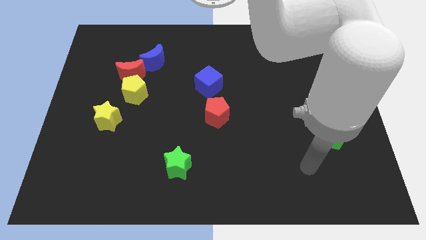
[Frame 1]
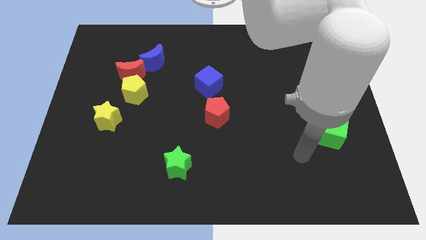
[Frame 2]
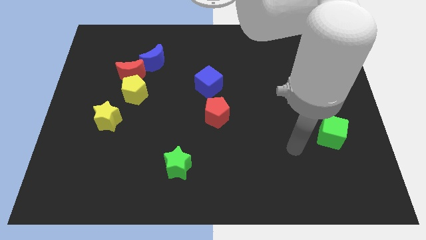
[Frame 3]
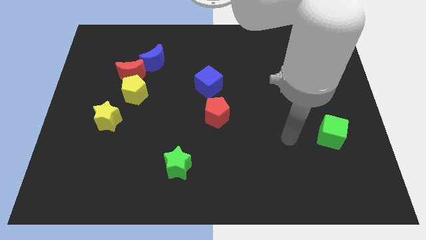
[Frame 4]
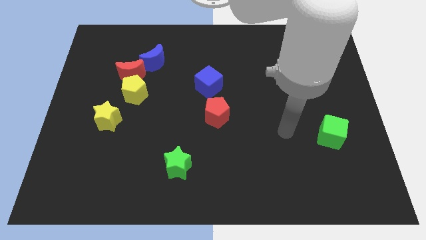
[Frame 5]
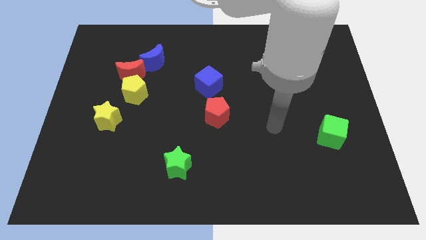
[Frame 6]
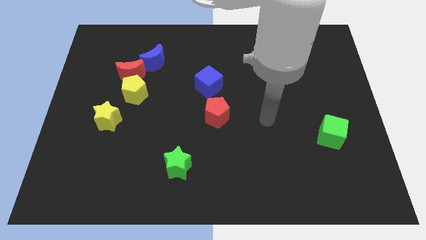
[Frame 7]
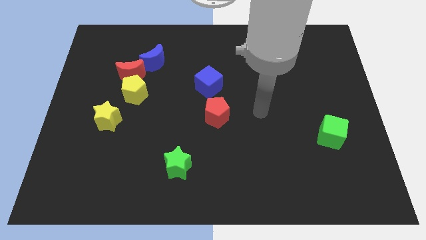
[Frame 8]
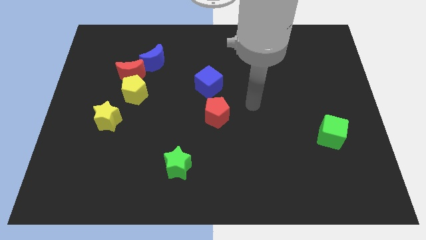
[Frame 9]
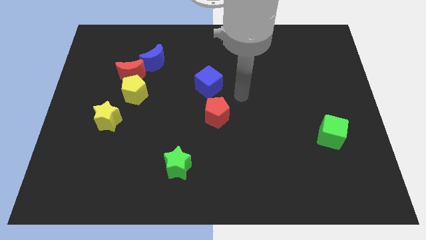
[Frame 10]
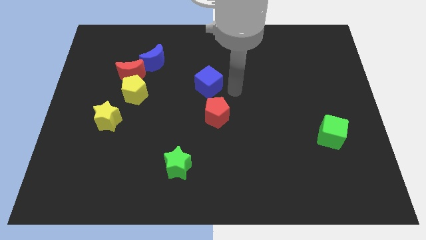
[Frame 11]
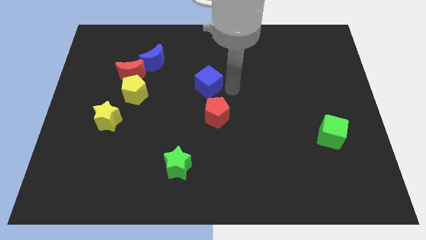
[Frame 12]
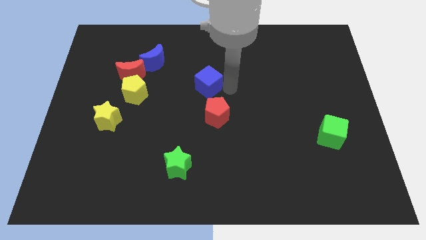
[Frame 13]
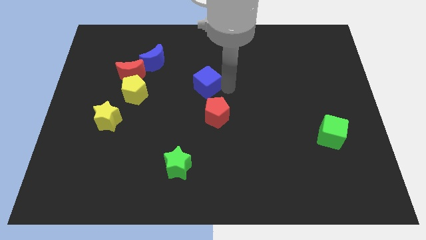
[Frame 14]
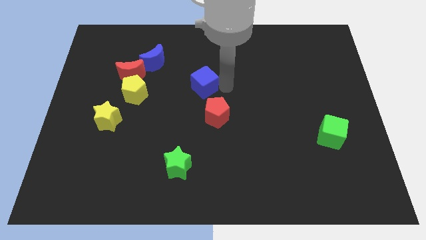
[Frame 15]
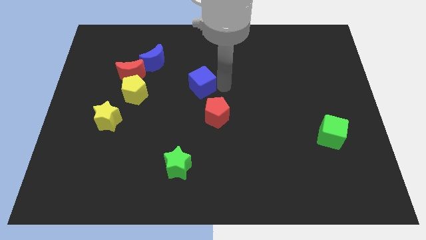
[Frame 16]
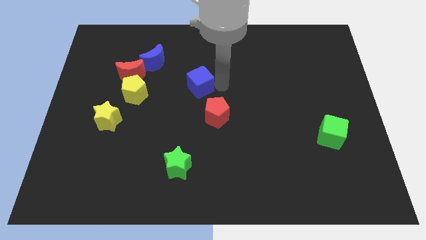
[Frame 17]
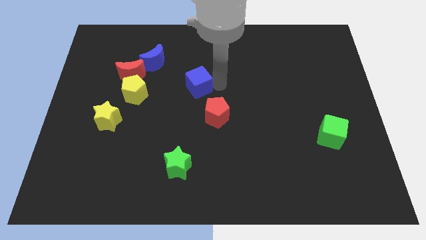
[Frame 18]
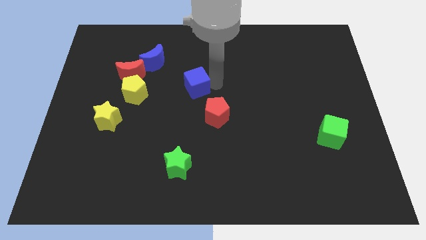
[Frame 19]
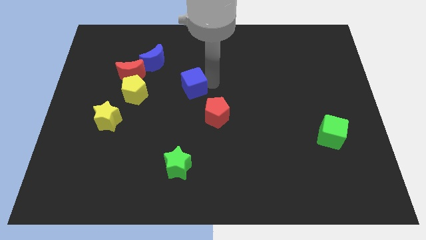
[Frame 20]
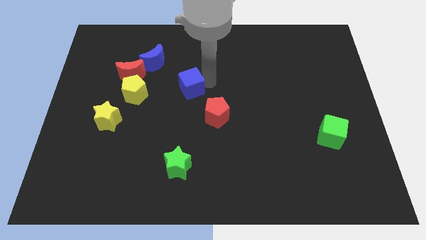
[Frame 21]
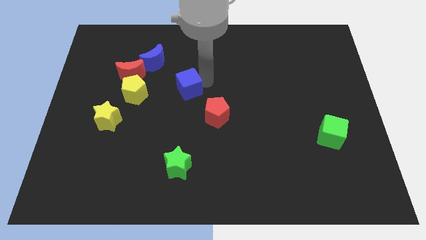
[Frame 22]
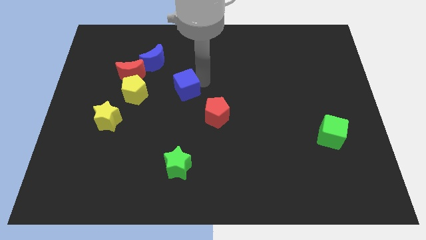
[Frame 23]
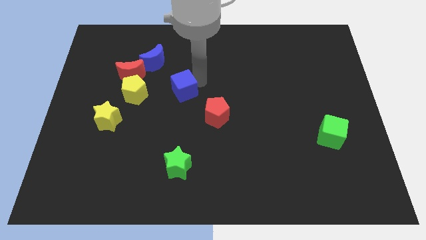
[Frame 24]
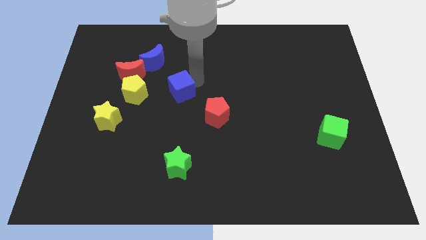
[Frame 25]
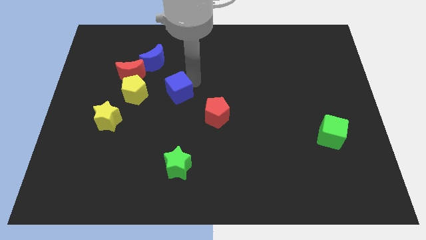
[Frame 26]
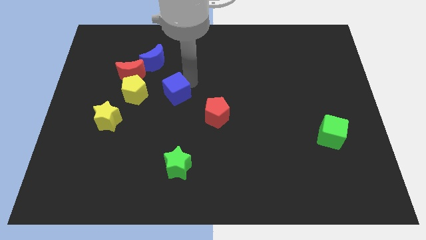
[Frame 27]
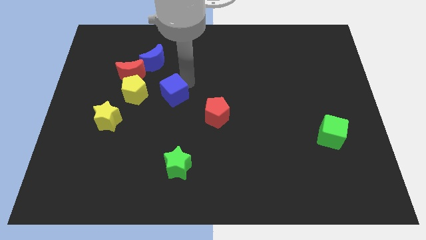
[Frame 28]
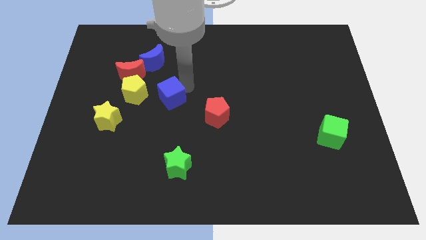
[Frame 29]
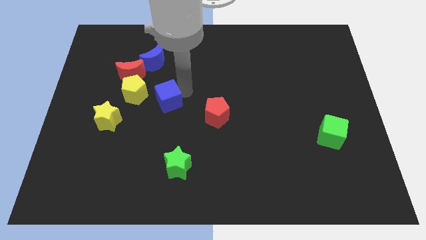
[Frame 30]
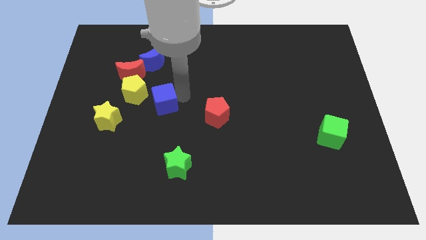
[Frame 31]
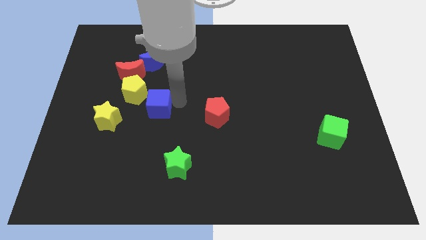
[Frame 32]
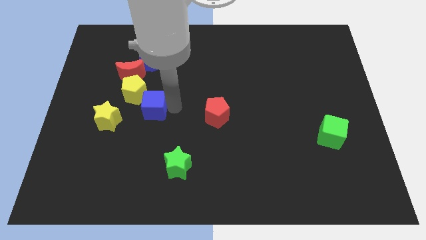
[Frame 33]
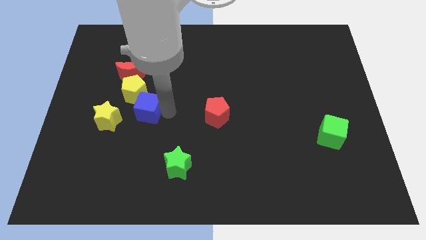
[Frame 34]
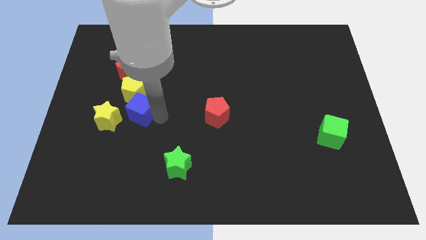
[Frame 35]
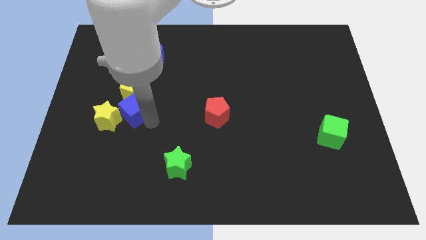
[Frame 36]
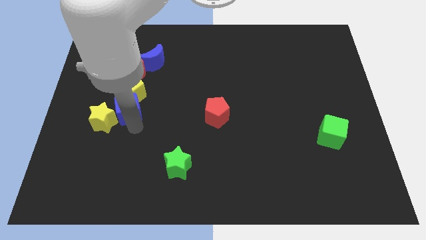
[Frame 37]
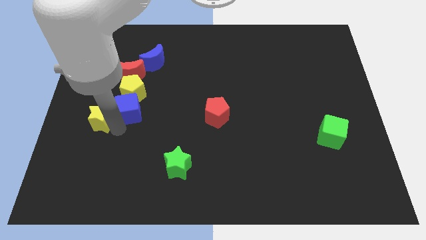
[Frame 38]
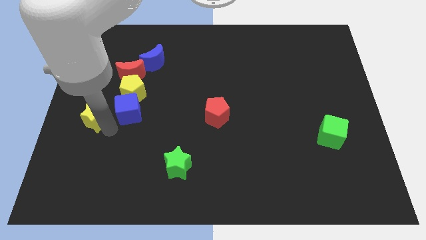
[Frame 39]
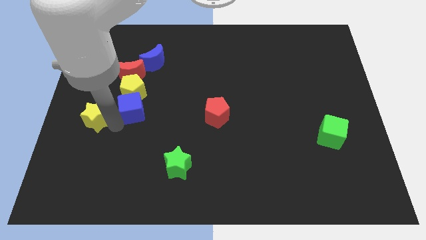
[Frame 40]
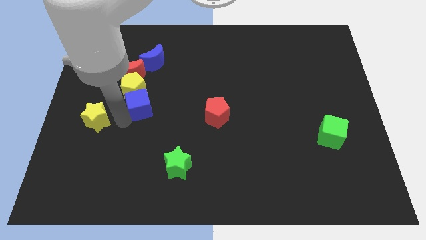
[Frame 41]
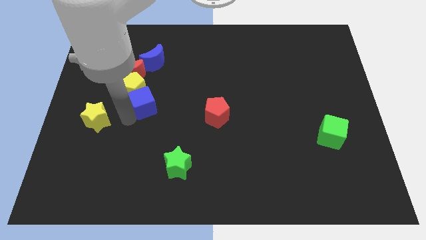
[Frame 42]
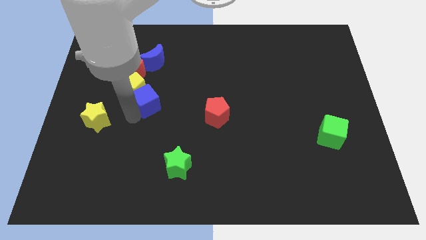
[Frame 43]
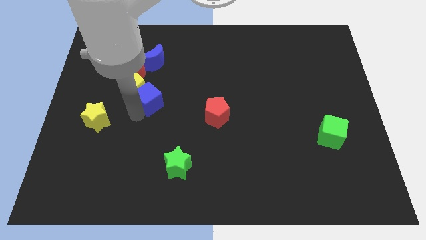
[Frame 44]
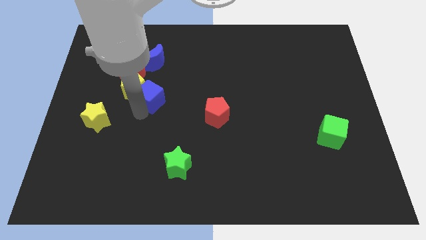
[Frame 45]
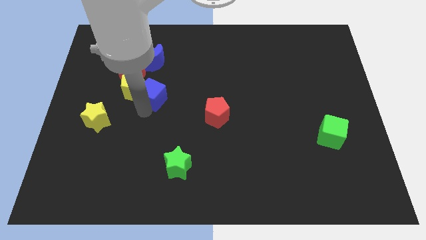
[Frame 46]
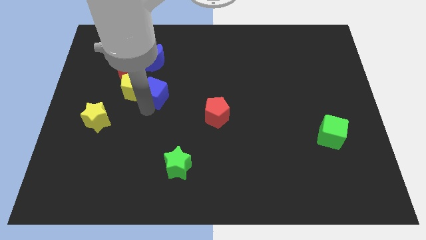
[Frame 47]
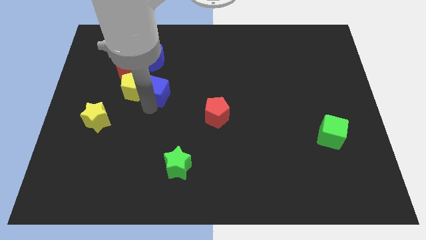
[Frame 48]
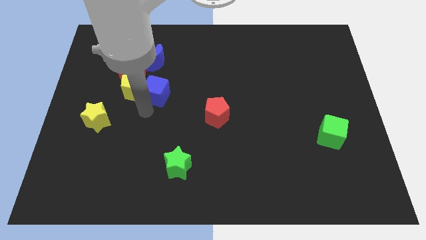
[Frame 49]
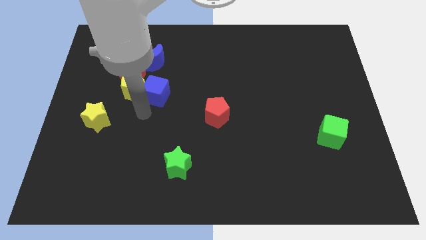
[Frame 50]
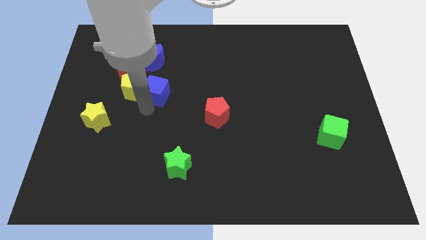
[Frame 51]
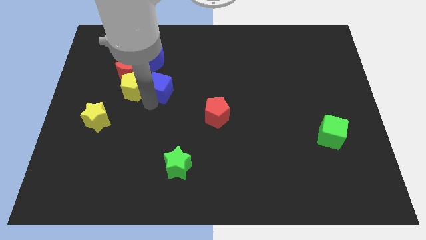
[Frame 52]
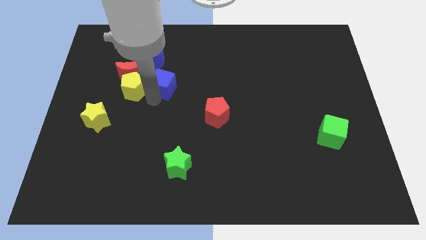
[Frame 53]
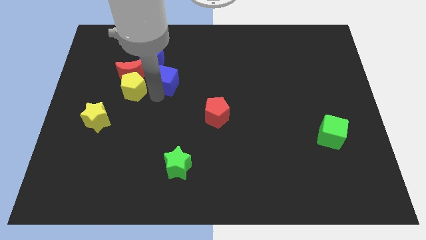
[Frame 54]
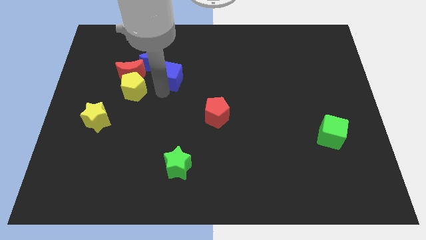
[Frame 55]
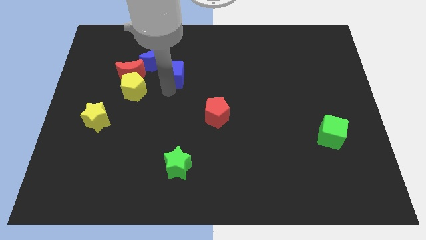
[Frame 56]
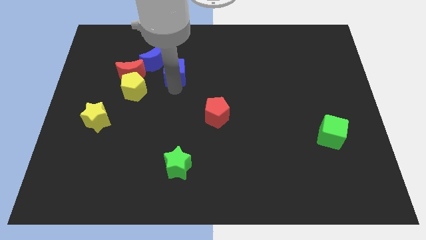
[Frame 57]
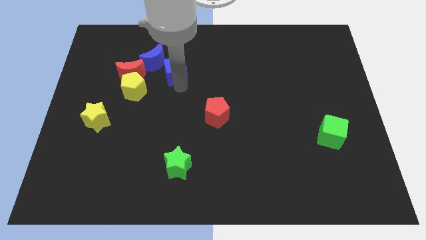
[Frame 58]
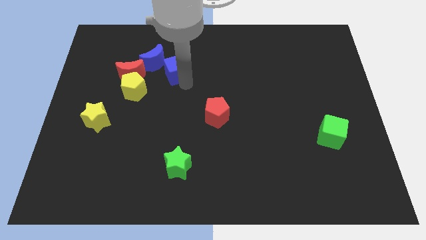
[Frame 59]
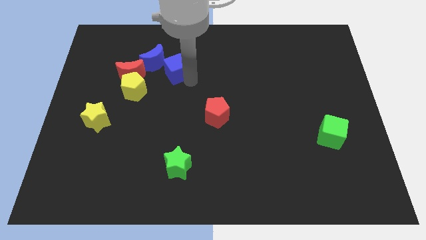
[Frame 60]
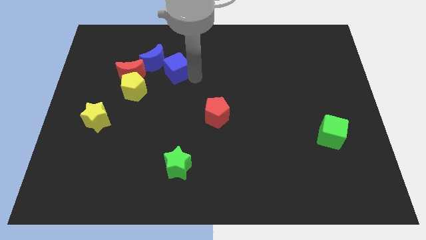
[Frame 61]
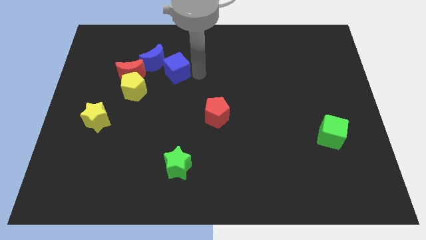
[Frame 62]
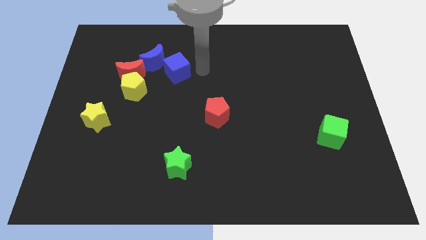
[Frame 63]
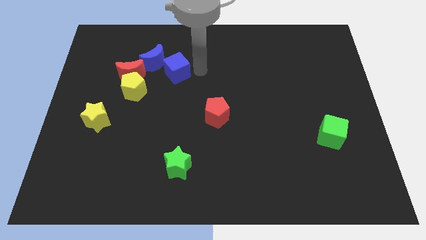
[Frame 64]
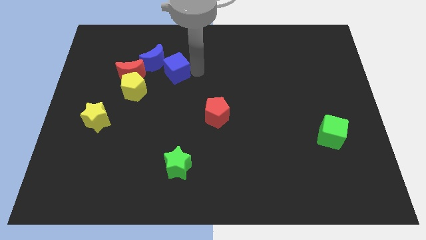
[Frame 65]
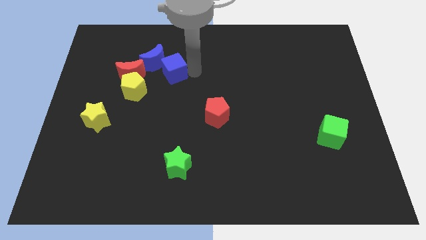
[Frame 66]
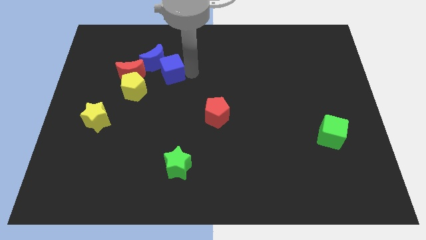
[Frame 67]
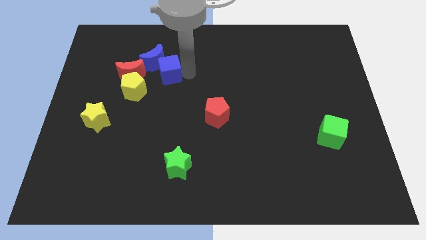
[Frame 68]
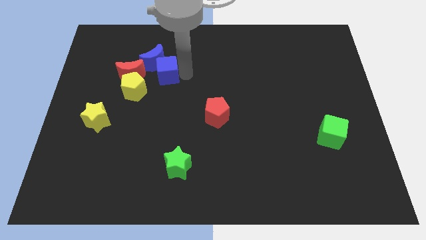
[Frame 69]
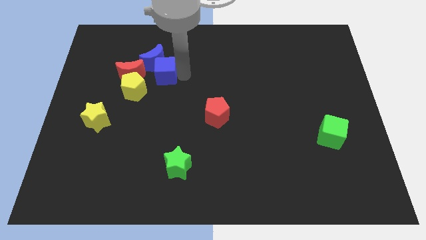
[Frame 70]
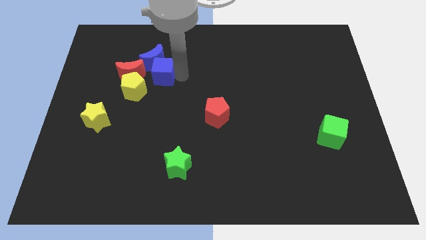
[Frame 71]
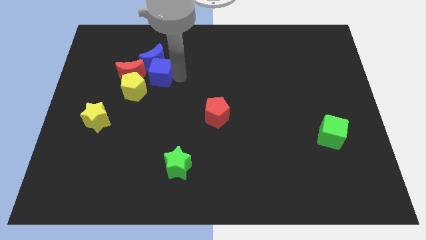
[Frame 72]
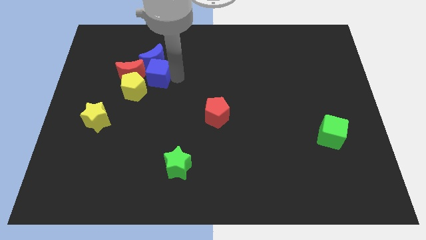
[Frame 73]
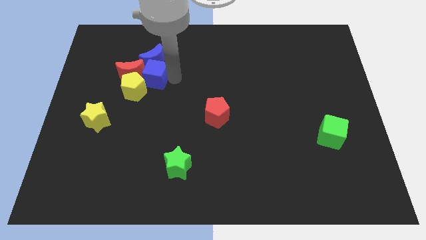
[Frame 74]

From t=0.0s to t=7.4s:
put the blue cube towards the red moon
